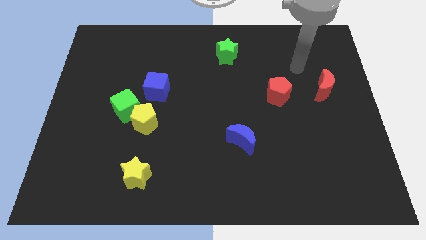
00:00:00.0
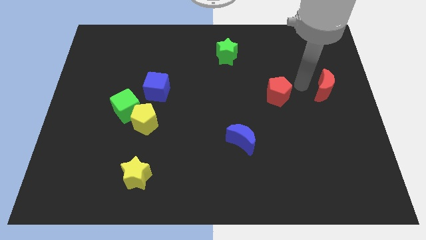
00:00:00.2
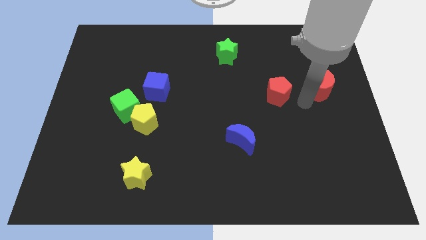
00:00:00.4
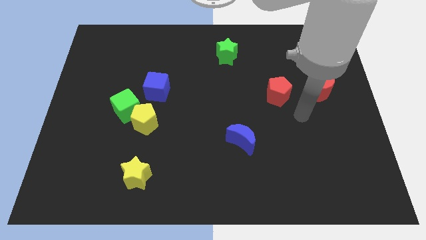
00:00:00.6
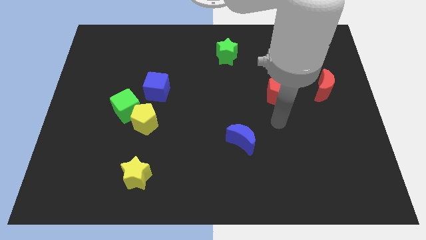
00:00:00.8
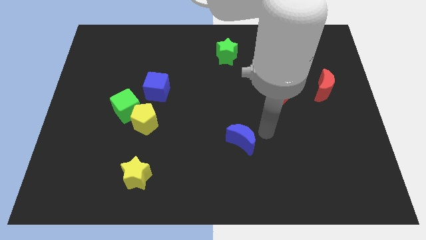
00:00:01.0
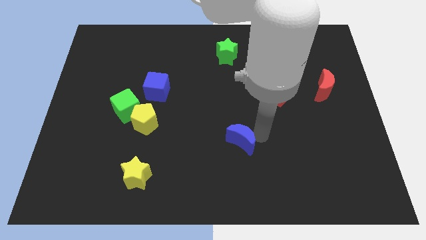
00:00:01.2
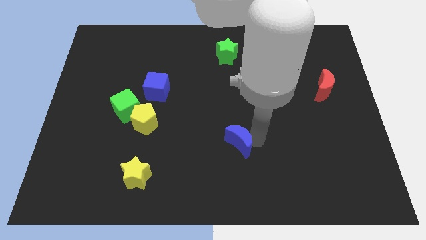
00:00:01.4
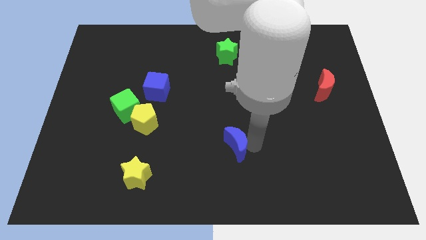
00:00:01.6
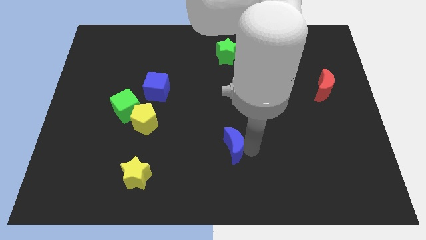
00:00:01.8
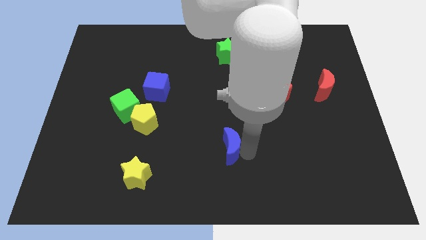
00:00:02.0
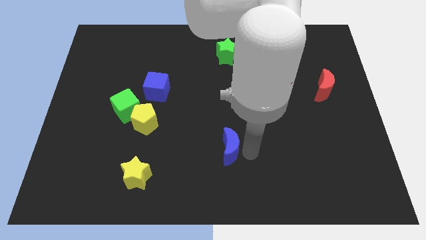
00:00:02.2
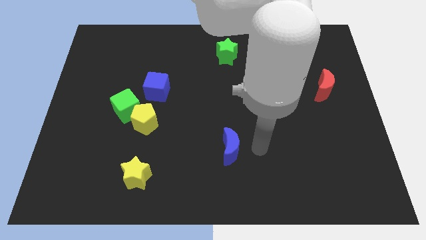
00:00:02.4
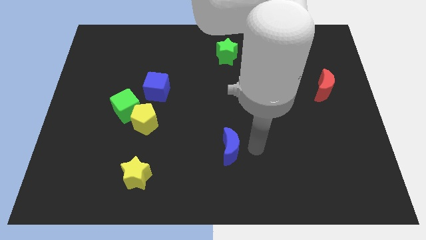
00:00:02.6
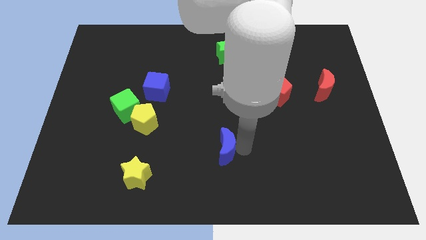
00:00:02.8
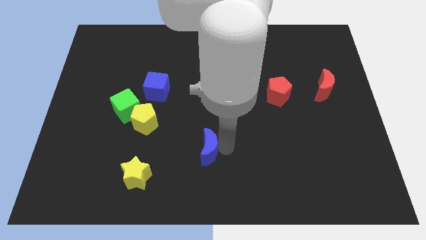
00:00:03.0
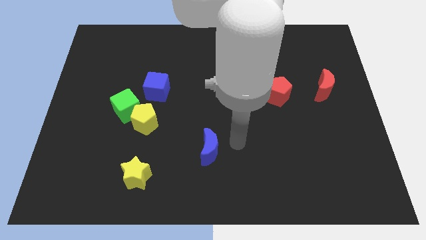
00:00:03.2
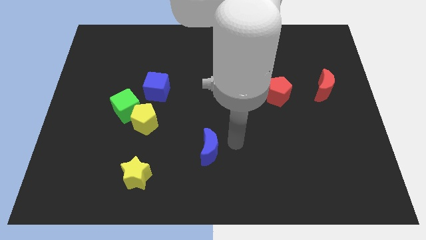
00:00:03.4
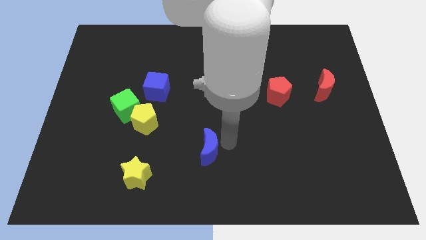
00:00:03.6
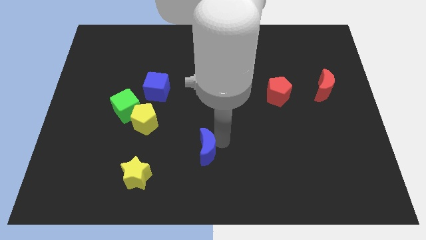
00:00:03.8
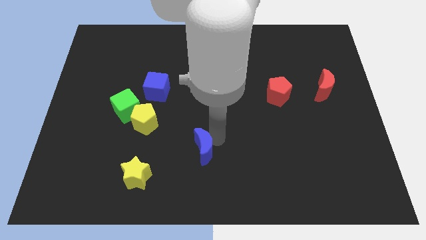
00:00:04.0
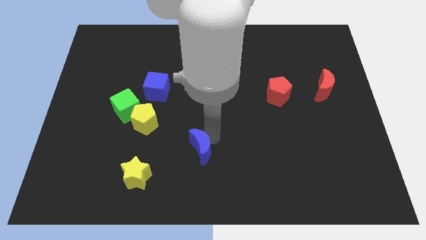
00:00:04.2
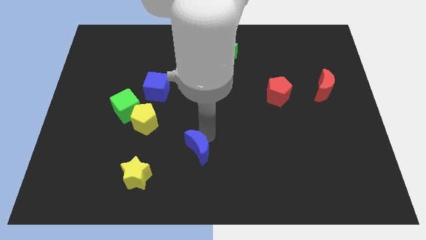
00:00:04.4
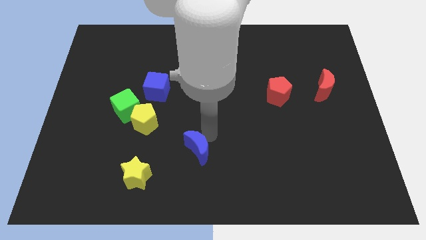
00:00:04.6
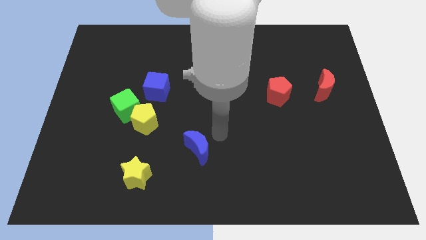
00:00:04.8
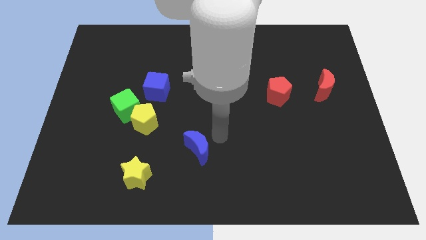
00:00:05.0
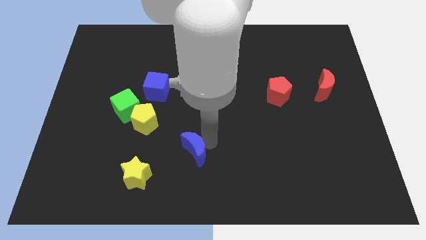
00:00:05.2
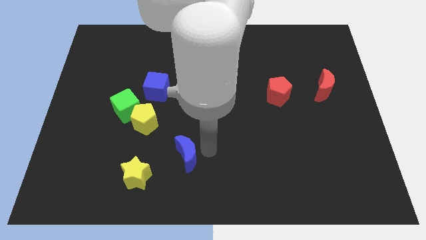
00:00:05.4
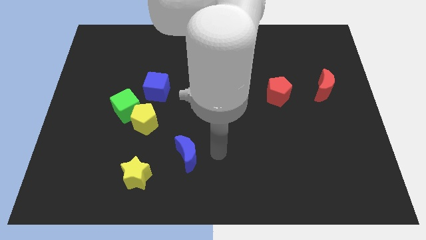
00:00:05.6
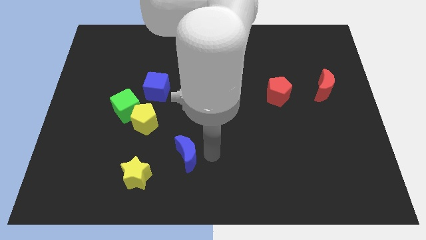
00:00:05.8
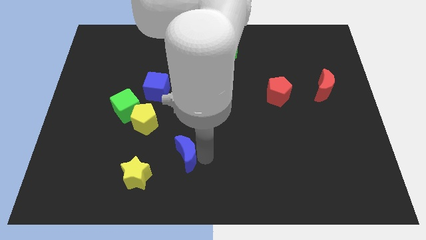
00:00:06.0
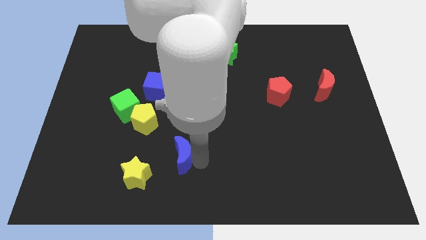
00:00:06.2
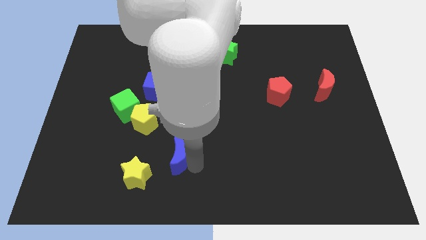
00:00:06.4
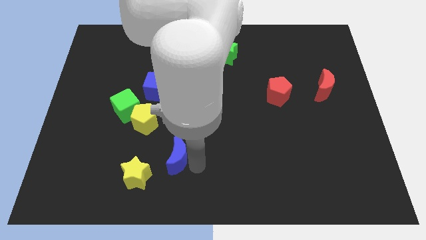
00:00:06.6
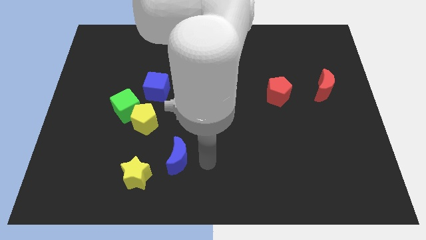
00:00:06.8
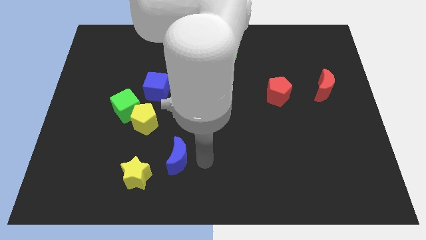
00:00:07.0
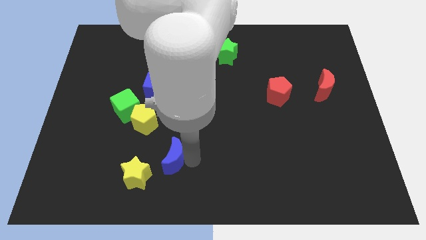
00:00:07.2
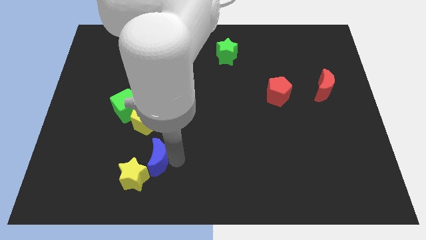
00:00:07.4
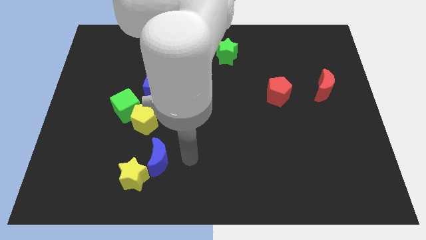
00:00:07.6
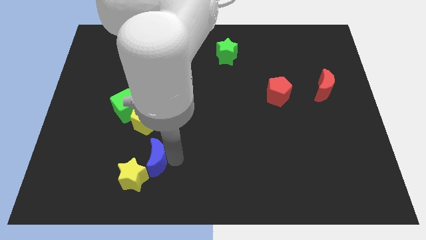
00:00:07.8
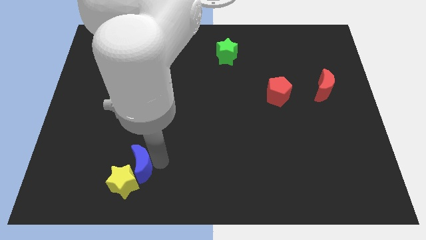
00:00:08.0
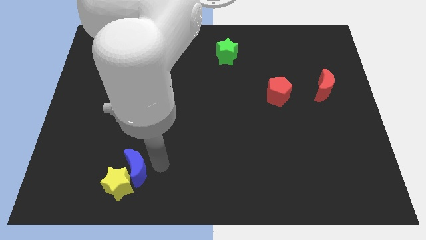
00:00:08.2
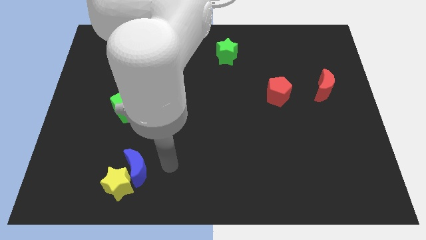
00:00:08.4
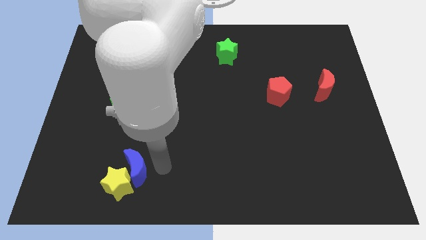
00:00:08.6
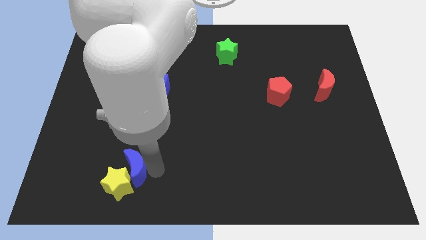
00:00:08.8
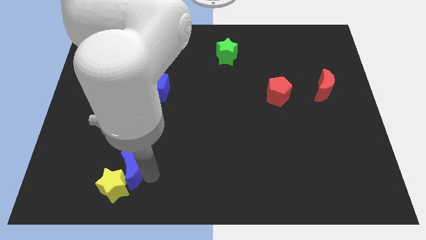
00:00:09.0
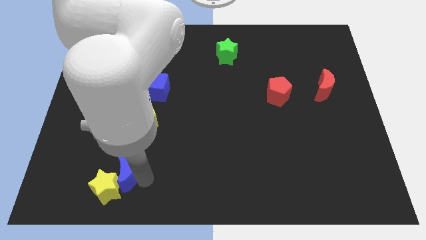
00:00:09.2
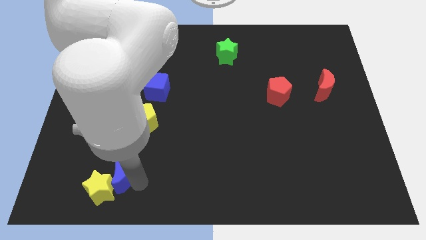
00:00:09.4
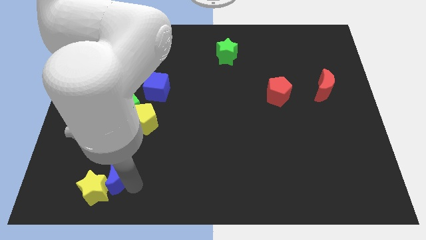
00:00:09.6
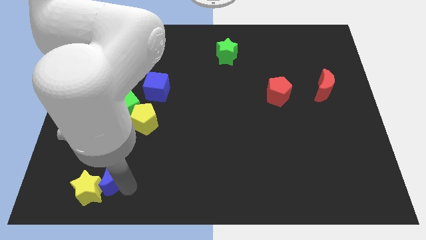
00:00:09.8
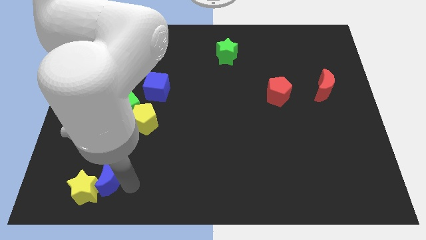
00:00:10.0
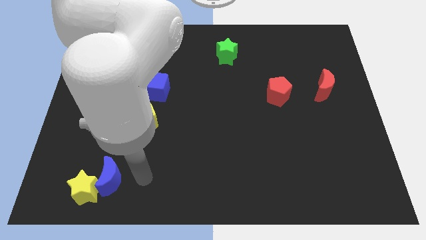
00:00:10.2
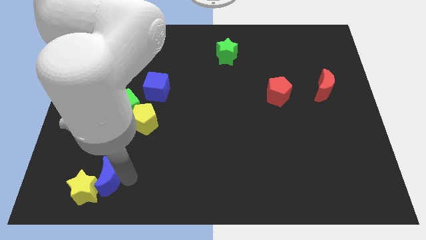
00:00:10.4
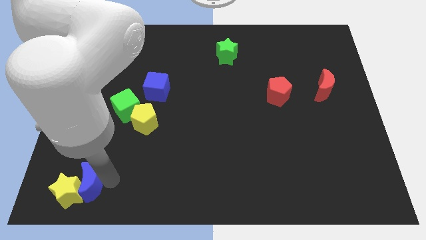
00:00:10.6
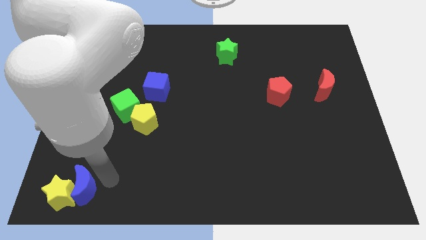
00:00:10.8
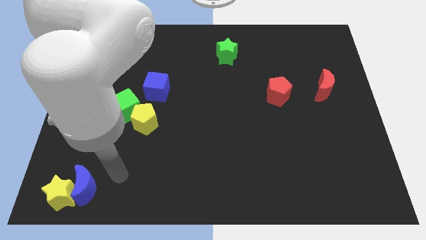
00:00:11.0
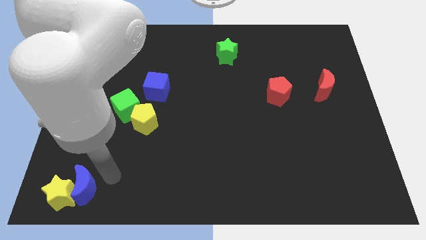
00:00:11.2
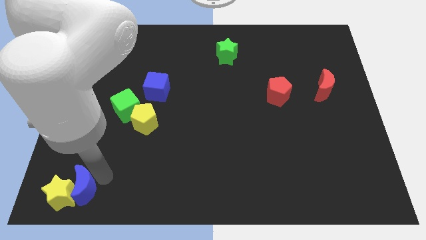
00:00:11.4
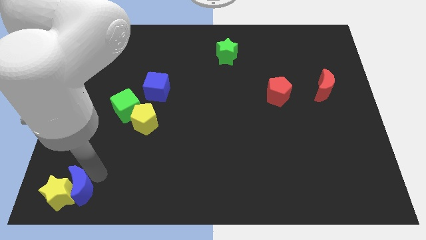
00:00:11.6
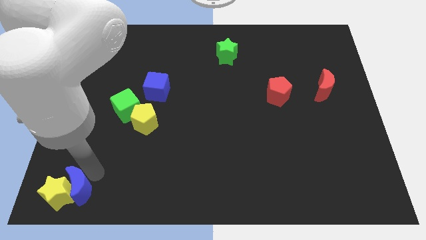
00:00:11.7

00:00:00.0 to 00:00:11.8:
push the blue moon to the lower left corner
